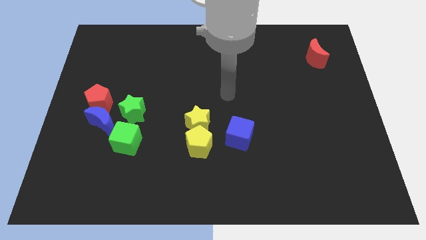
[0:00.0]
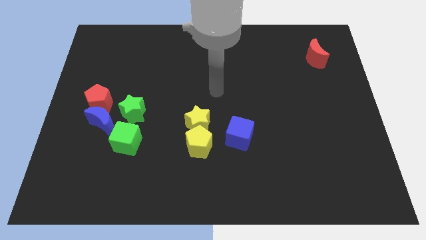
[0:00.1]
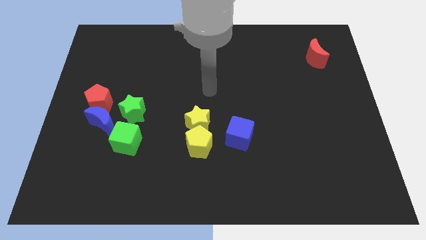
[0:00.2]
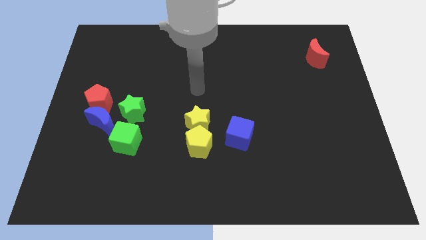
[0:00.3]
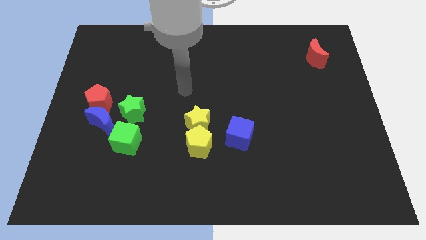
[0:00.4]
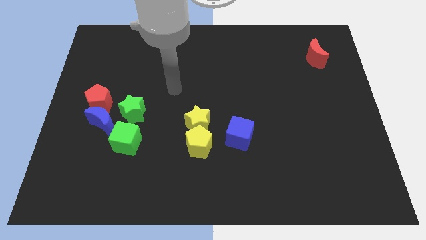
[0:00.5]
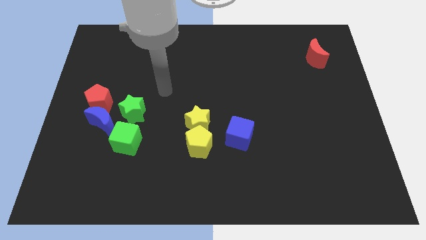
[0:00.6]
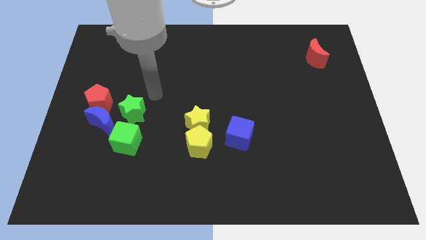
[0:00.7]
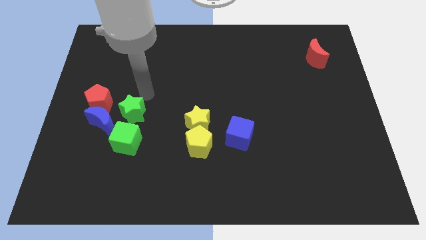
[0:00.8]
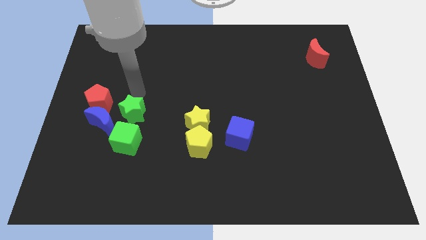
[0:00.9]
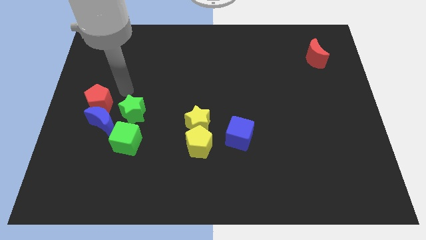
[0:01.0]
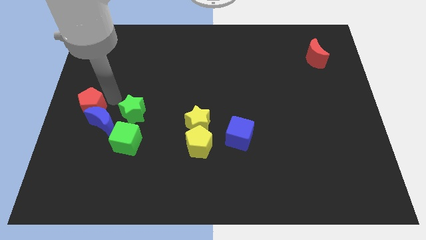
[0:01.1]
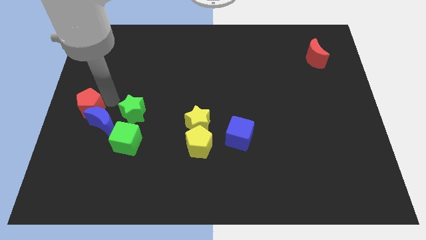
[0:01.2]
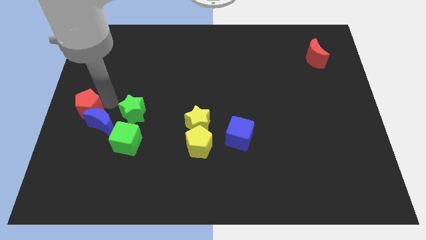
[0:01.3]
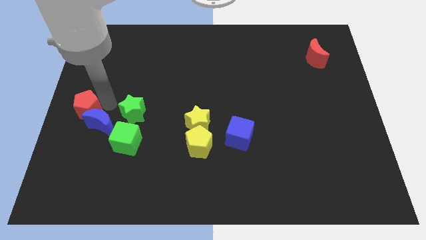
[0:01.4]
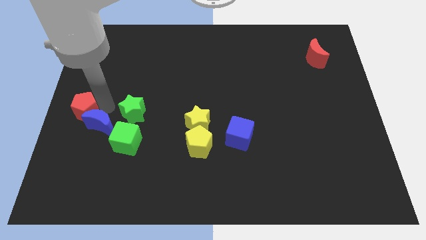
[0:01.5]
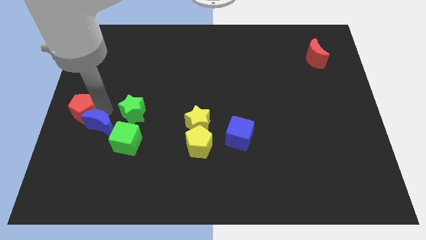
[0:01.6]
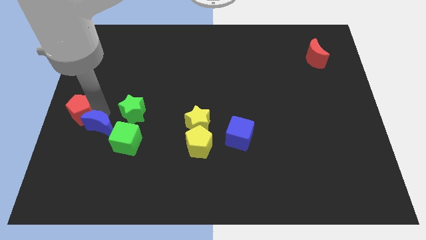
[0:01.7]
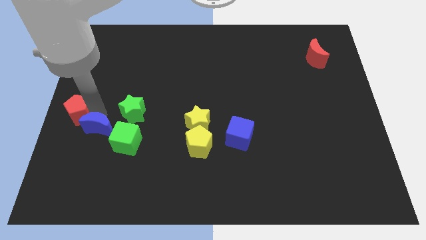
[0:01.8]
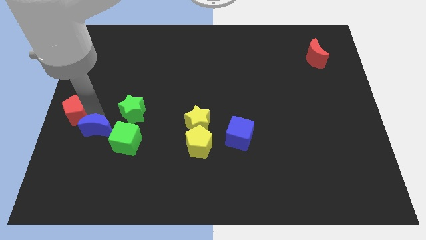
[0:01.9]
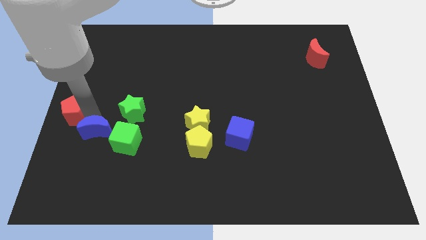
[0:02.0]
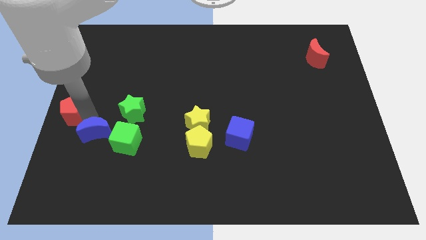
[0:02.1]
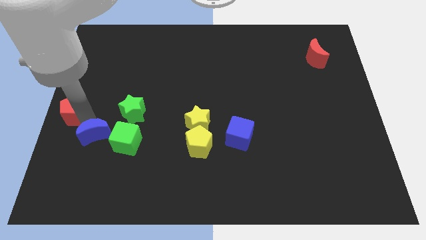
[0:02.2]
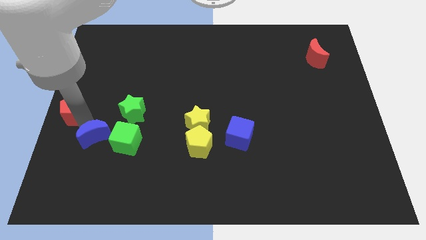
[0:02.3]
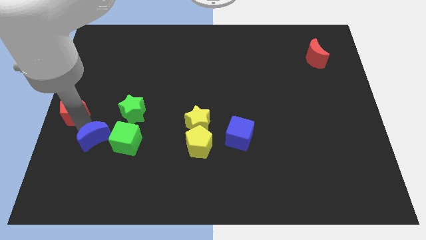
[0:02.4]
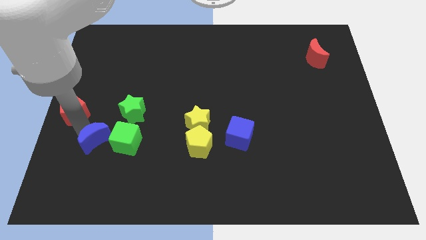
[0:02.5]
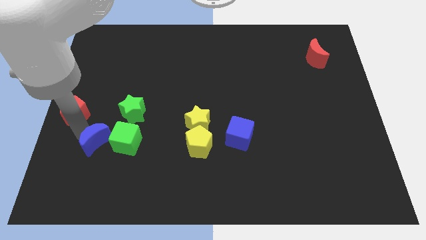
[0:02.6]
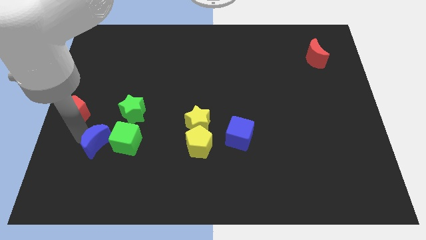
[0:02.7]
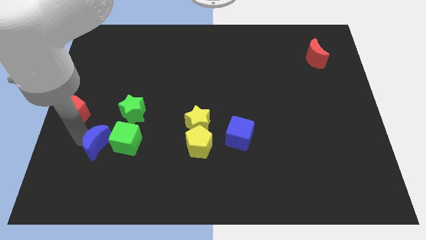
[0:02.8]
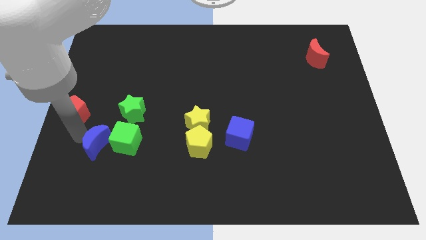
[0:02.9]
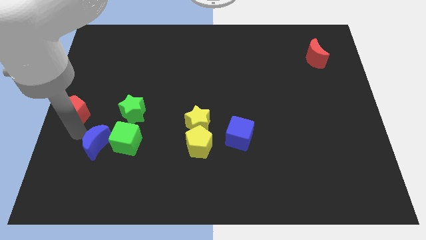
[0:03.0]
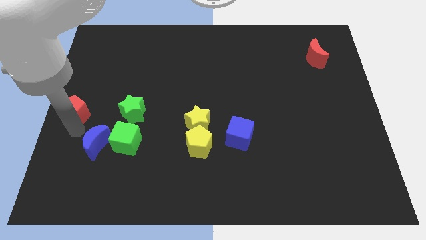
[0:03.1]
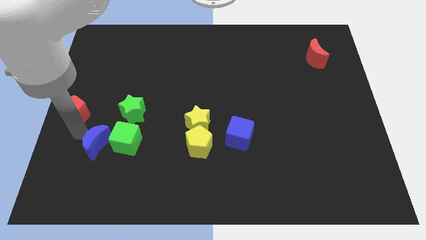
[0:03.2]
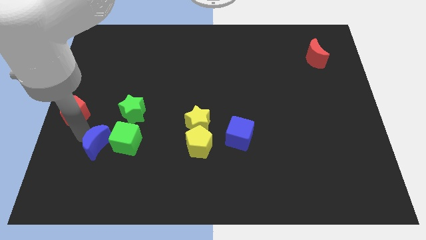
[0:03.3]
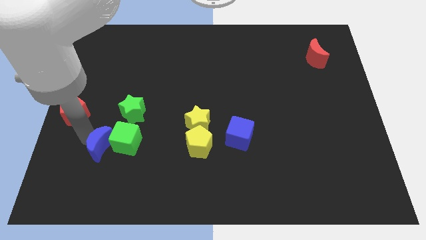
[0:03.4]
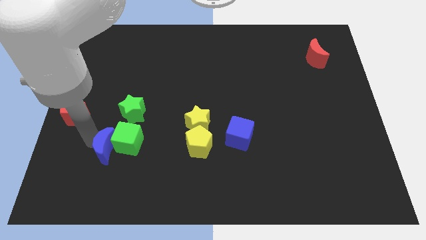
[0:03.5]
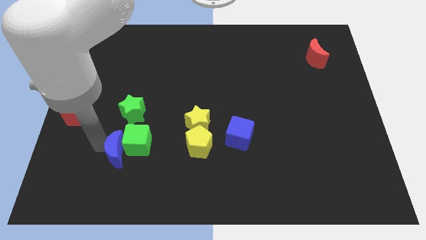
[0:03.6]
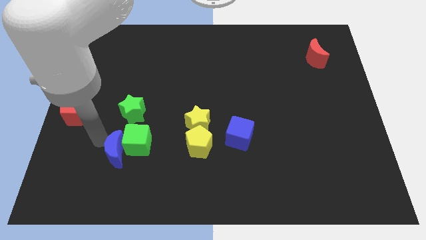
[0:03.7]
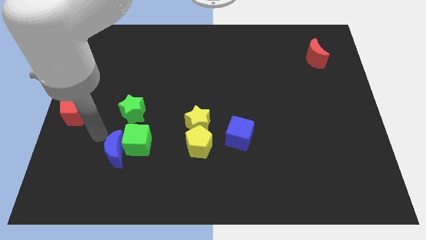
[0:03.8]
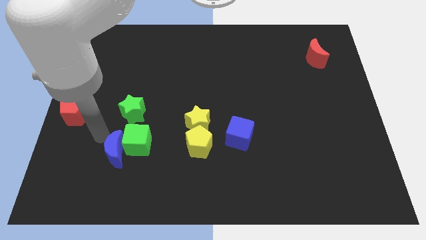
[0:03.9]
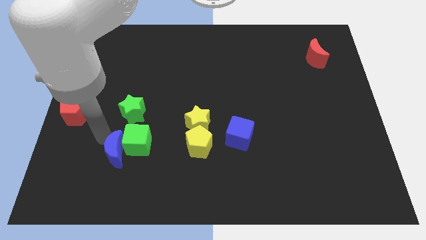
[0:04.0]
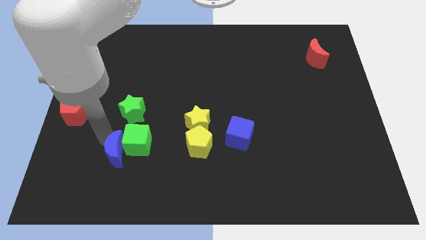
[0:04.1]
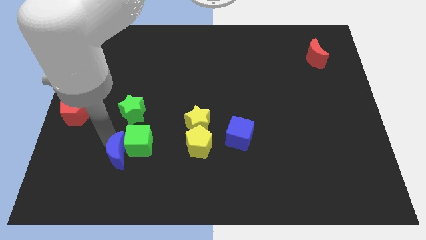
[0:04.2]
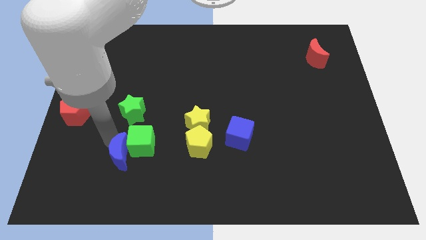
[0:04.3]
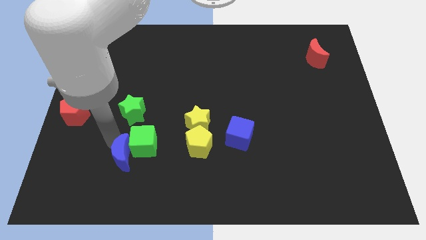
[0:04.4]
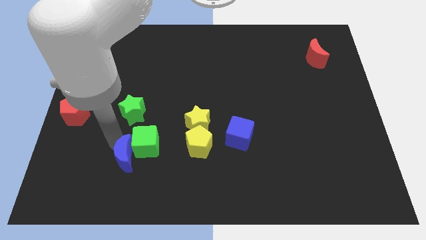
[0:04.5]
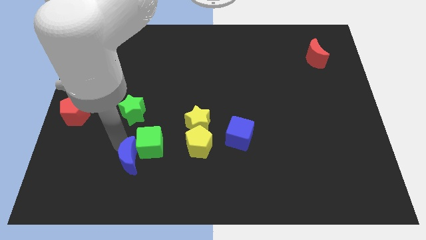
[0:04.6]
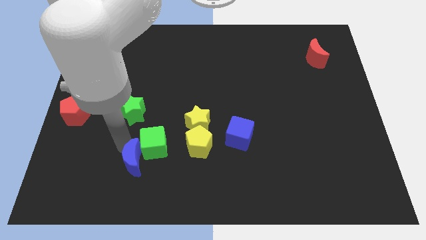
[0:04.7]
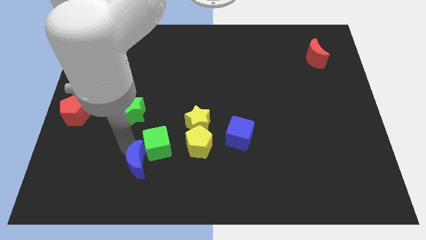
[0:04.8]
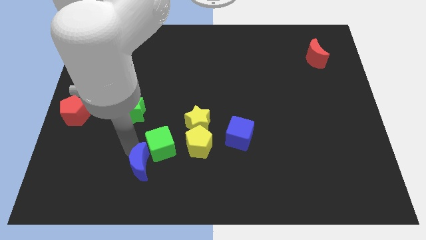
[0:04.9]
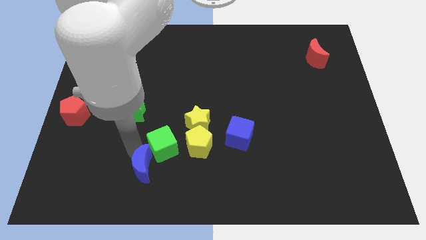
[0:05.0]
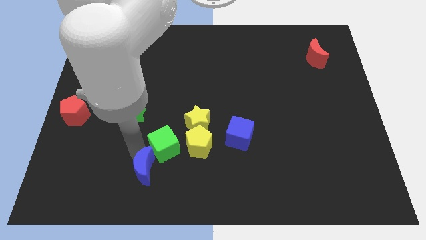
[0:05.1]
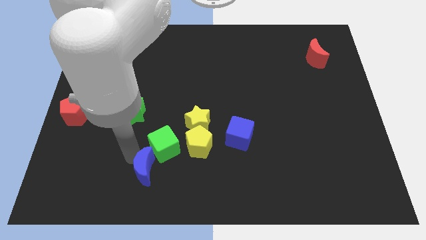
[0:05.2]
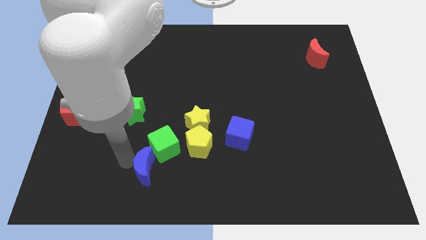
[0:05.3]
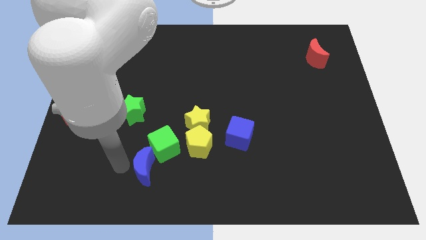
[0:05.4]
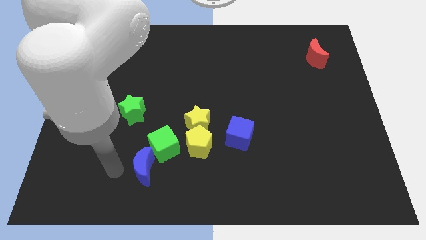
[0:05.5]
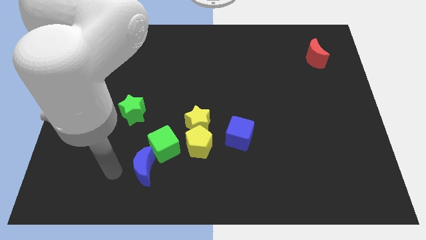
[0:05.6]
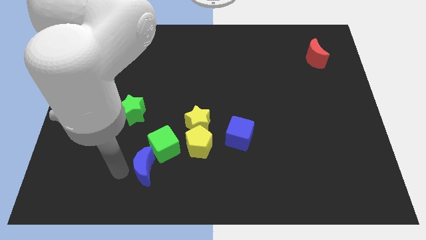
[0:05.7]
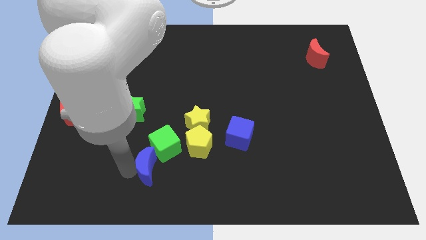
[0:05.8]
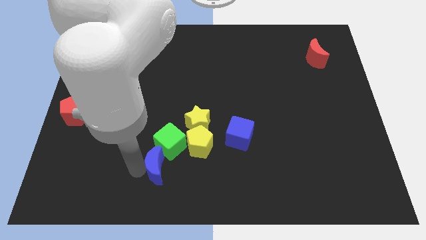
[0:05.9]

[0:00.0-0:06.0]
push the blue moon to the bottom left side of the yellow pentagon

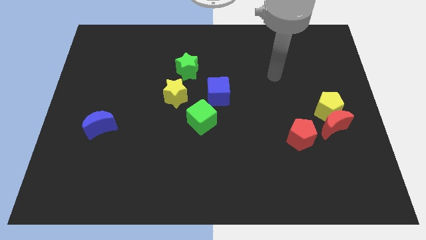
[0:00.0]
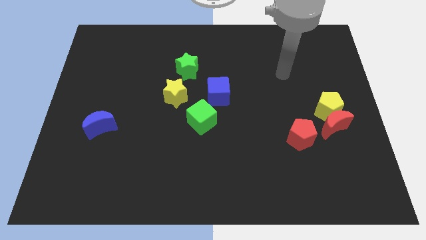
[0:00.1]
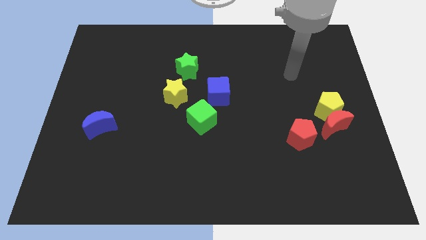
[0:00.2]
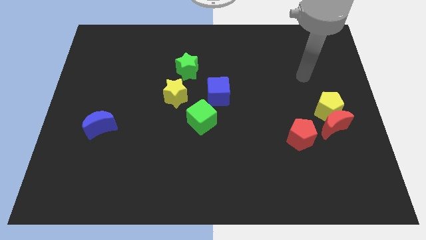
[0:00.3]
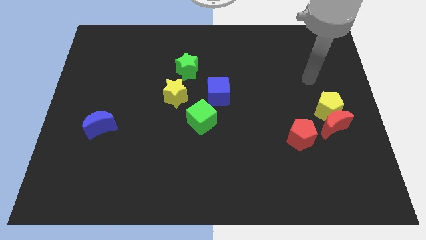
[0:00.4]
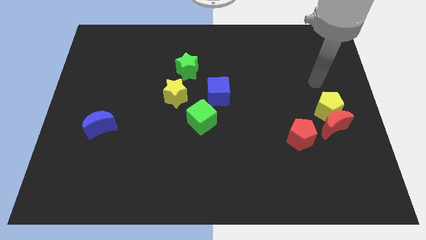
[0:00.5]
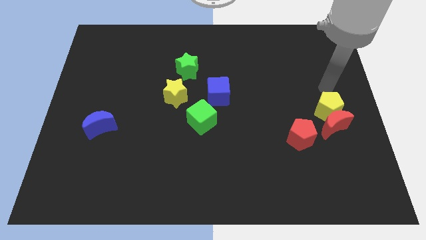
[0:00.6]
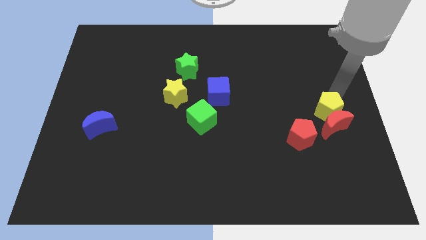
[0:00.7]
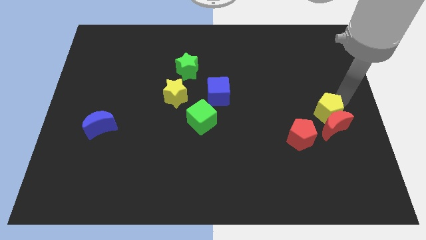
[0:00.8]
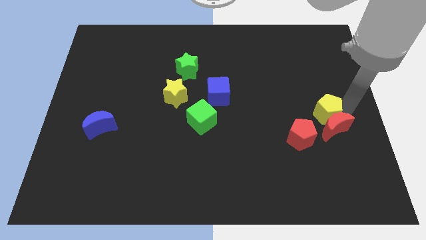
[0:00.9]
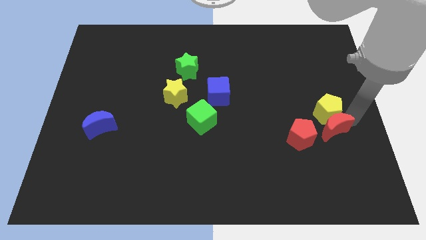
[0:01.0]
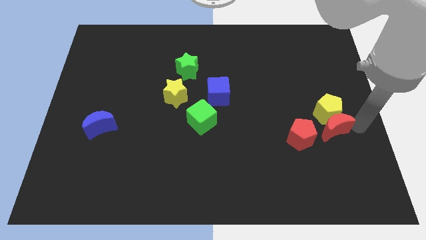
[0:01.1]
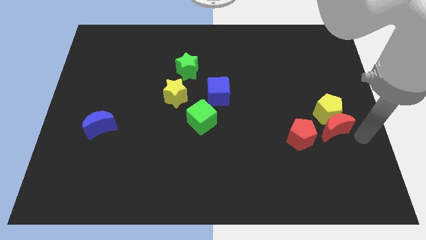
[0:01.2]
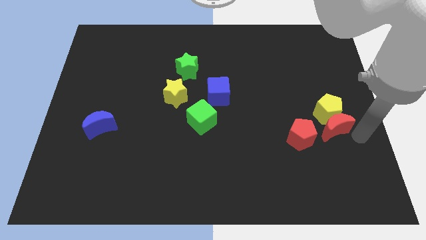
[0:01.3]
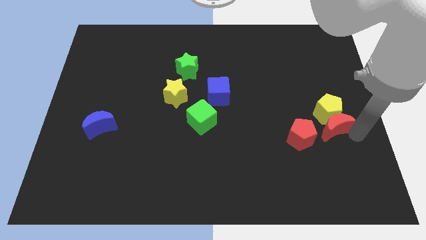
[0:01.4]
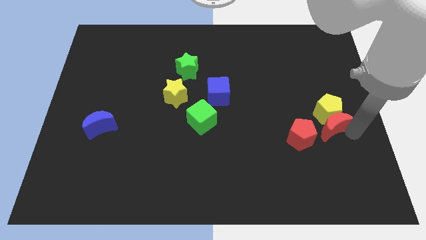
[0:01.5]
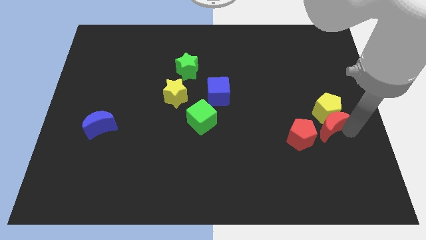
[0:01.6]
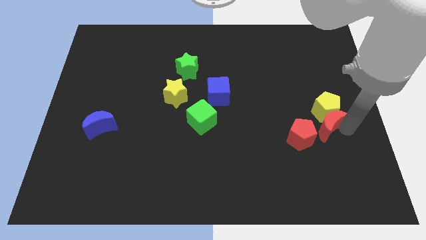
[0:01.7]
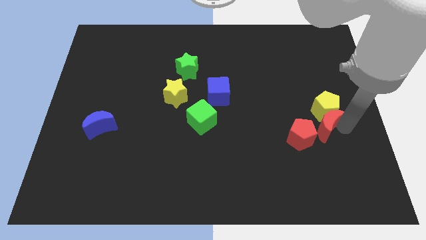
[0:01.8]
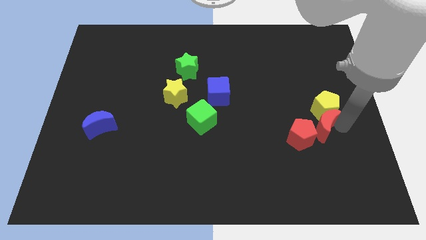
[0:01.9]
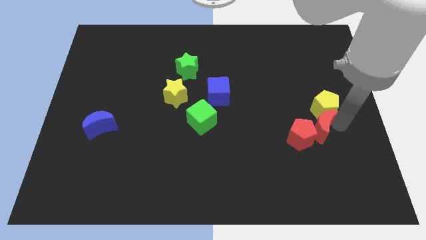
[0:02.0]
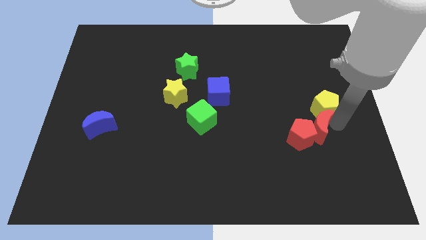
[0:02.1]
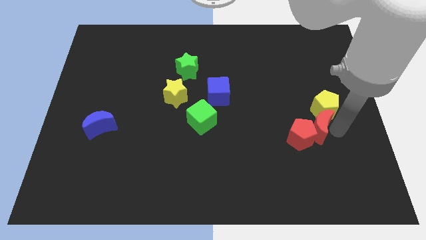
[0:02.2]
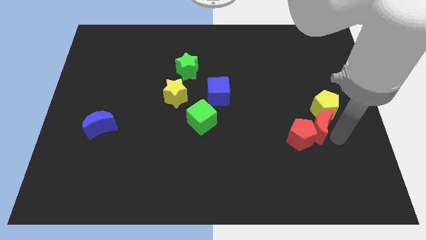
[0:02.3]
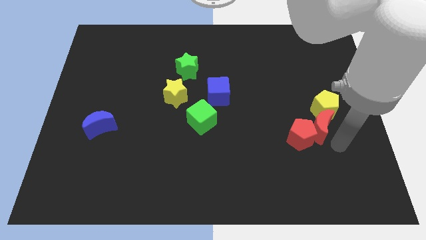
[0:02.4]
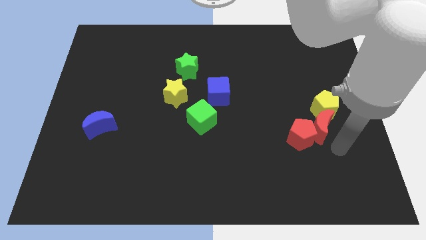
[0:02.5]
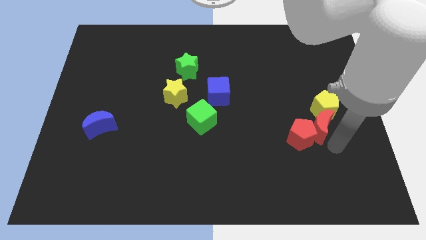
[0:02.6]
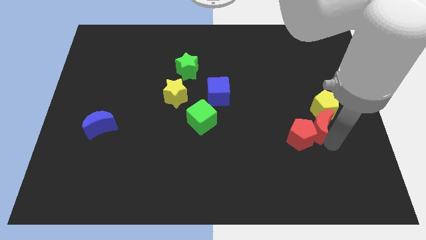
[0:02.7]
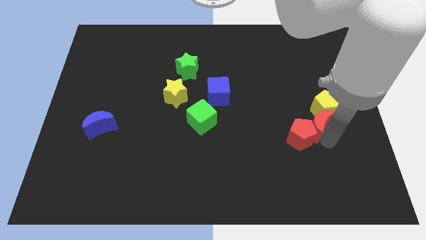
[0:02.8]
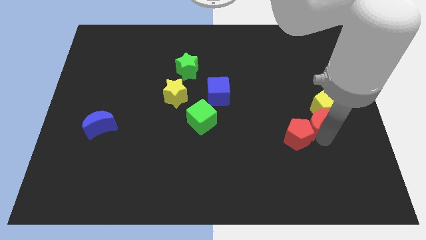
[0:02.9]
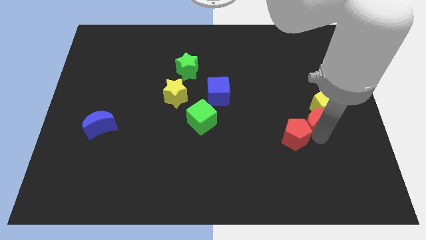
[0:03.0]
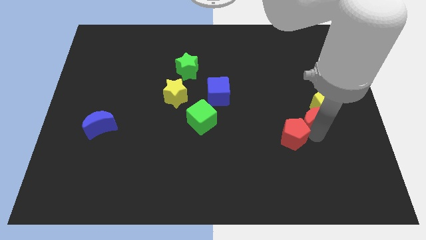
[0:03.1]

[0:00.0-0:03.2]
push the red moon above the red pentagon
